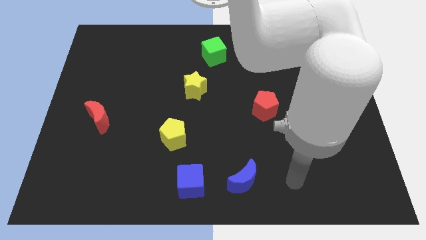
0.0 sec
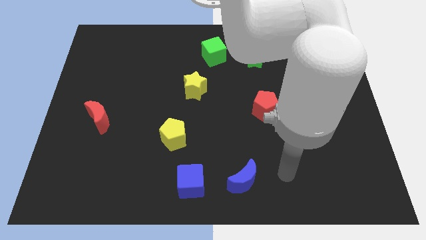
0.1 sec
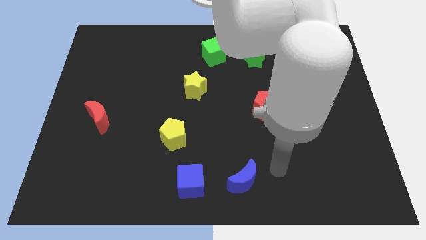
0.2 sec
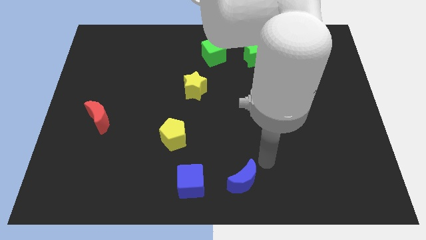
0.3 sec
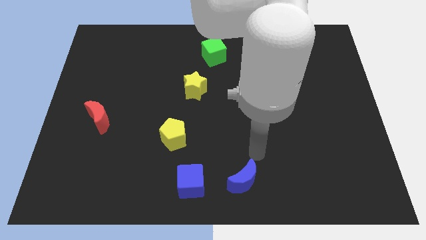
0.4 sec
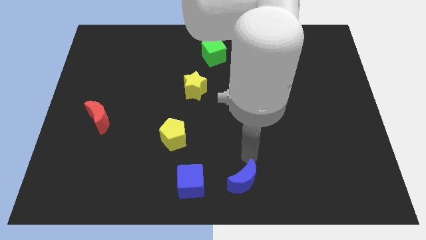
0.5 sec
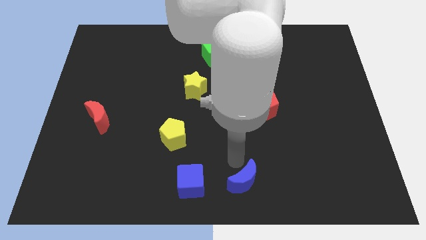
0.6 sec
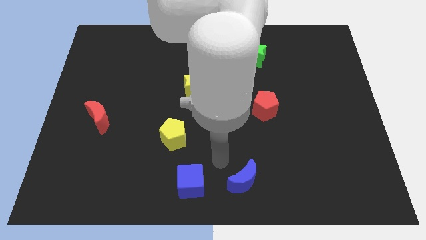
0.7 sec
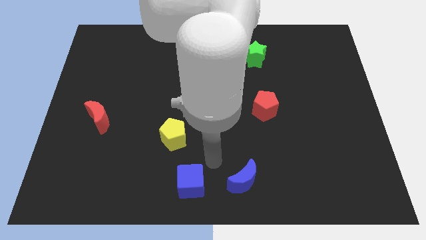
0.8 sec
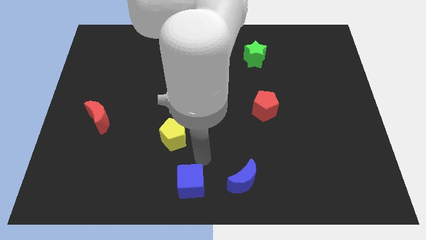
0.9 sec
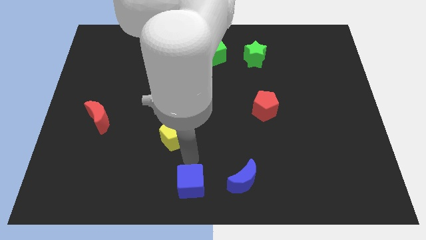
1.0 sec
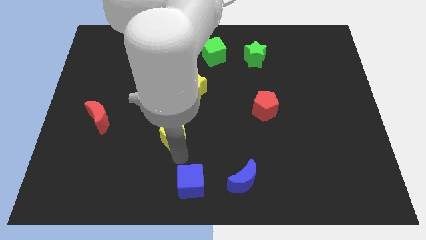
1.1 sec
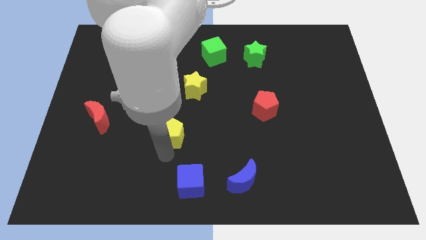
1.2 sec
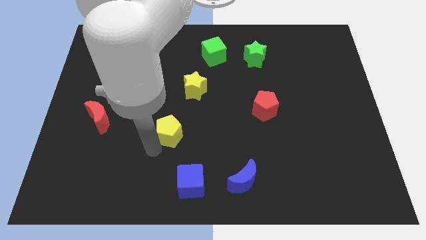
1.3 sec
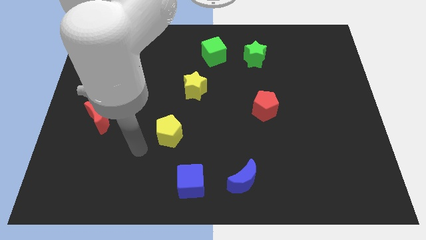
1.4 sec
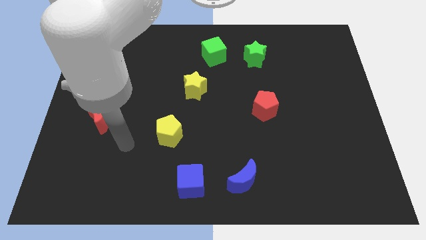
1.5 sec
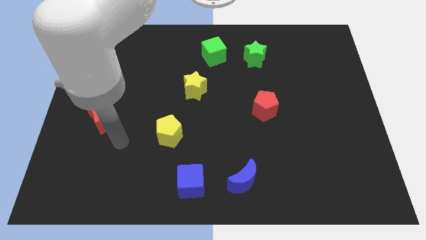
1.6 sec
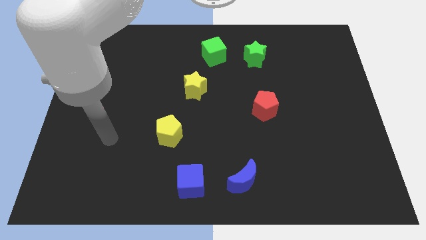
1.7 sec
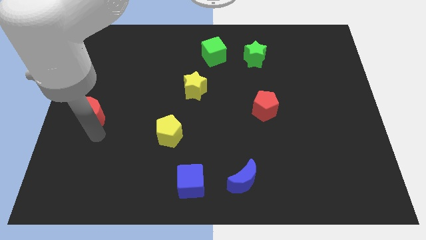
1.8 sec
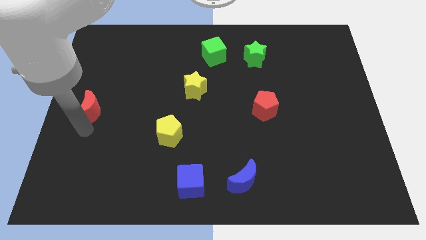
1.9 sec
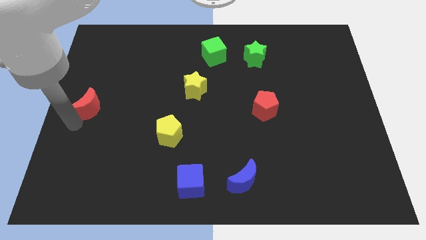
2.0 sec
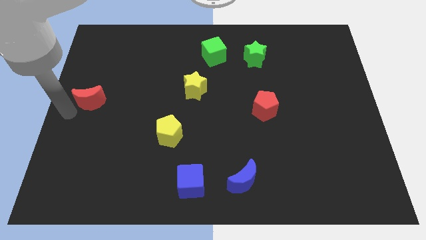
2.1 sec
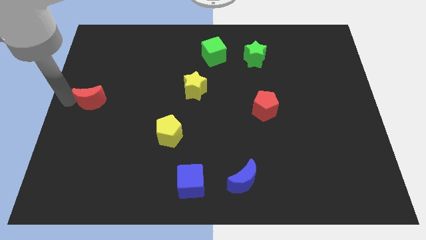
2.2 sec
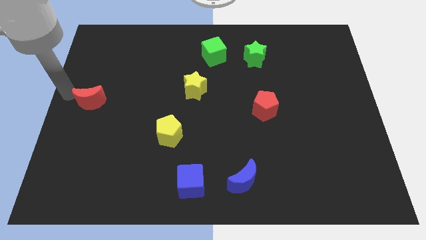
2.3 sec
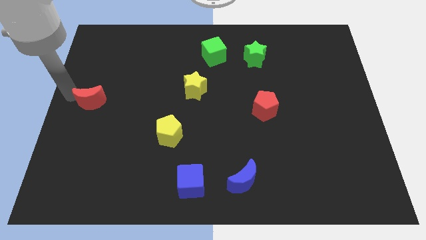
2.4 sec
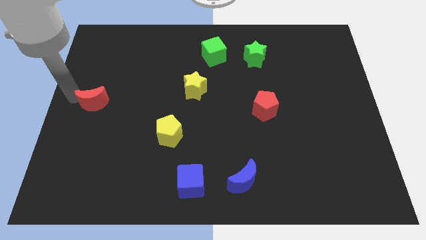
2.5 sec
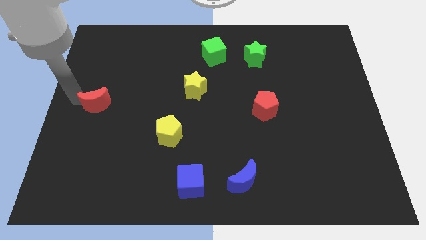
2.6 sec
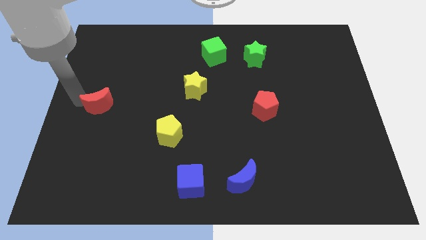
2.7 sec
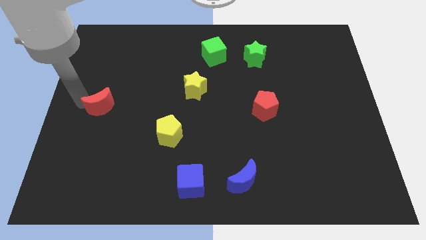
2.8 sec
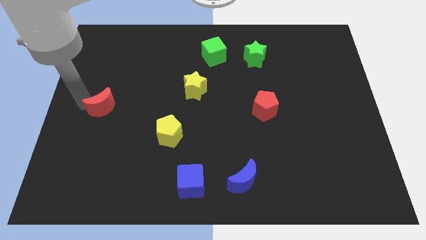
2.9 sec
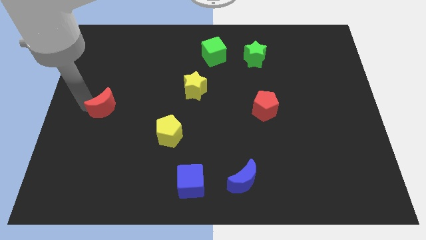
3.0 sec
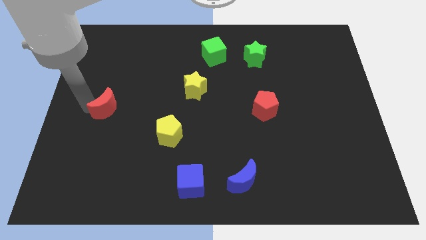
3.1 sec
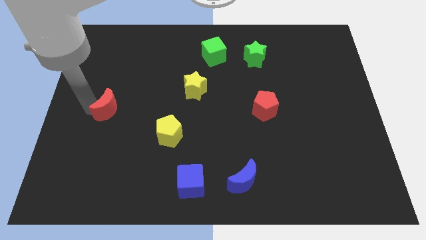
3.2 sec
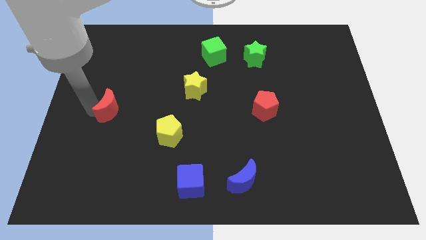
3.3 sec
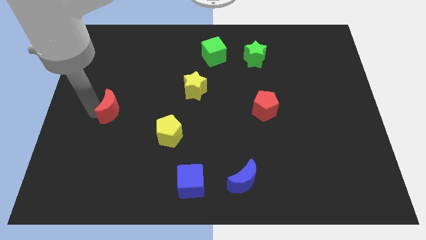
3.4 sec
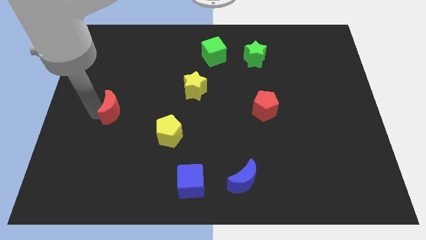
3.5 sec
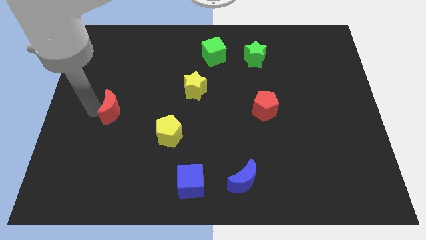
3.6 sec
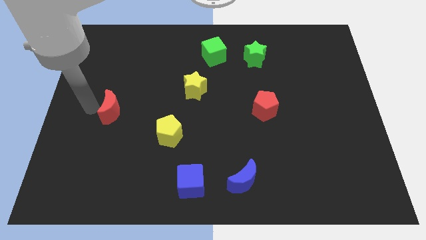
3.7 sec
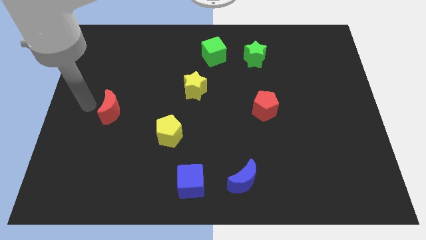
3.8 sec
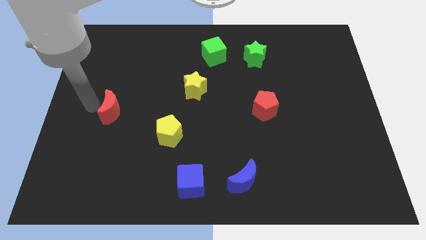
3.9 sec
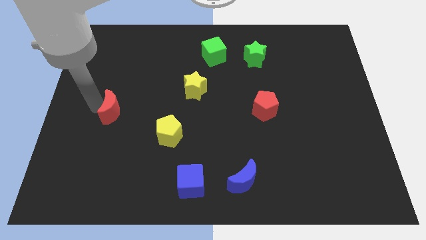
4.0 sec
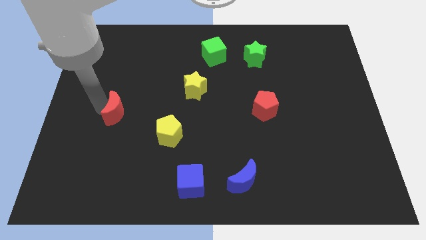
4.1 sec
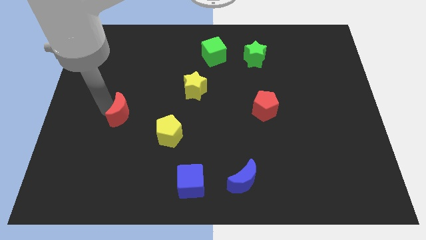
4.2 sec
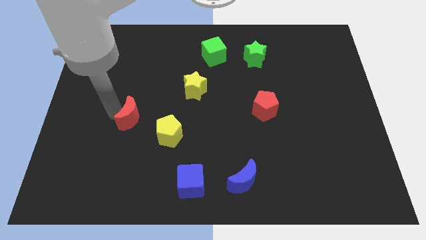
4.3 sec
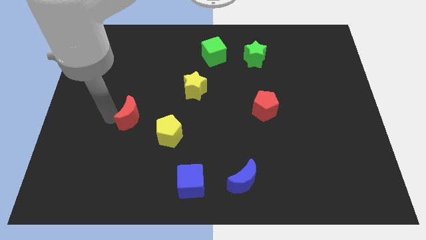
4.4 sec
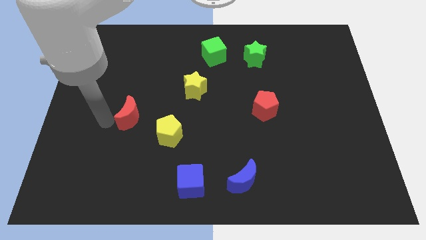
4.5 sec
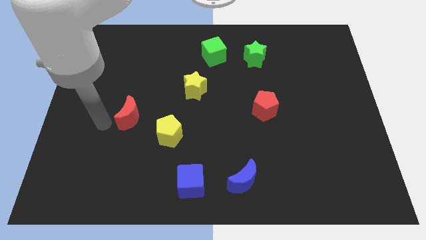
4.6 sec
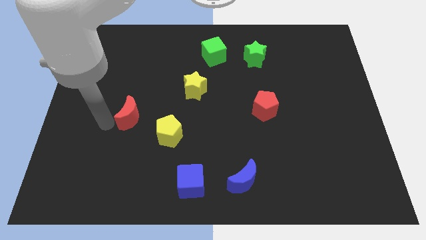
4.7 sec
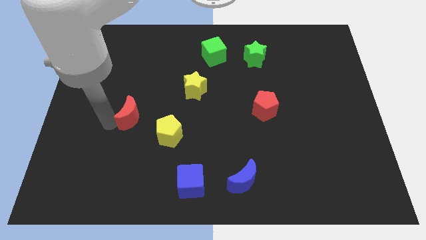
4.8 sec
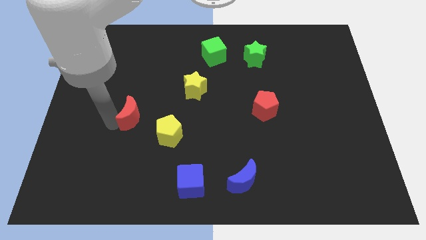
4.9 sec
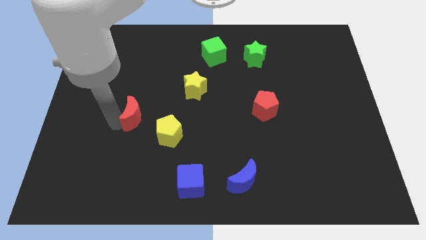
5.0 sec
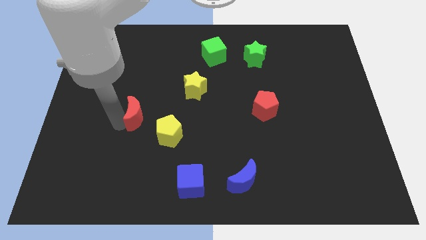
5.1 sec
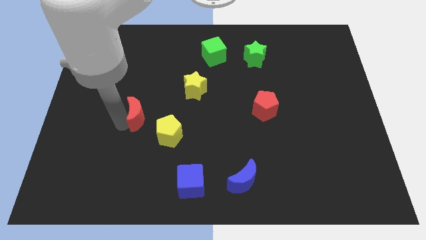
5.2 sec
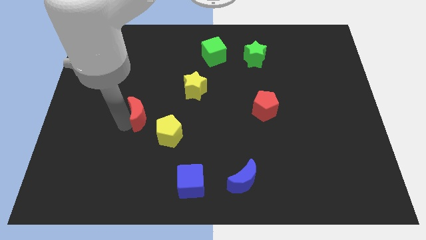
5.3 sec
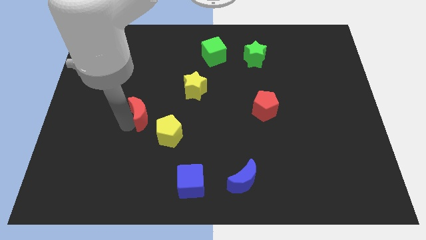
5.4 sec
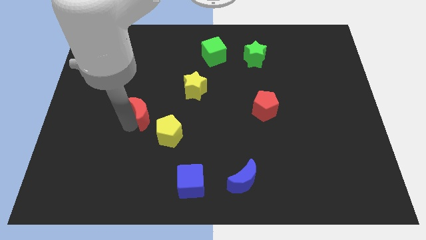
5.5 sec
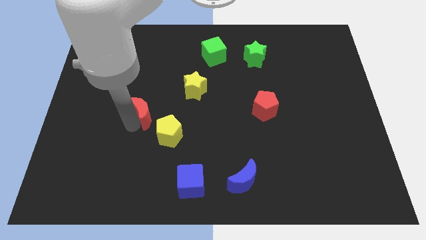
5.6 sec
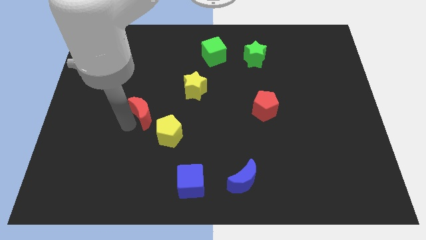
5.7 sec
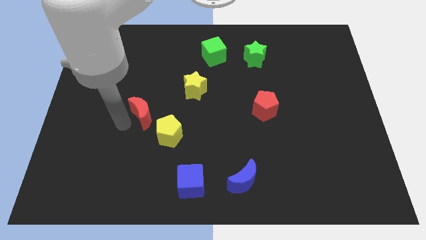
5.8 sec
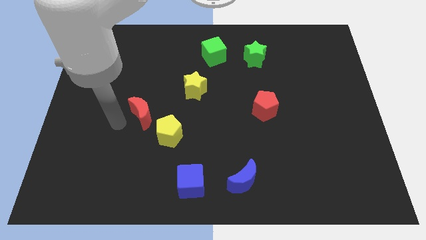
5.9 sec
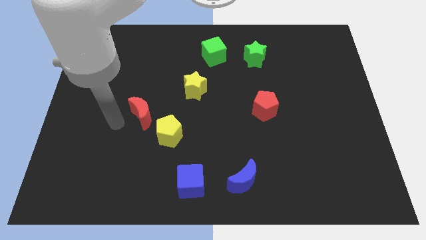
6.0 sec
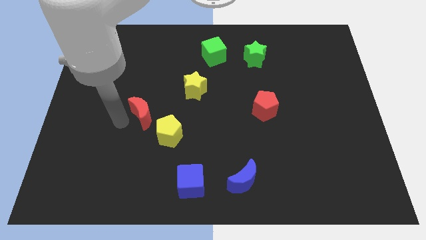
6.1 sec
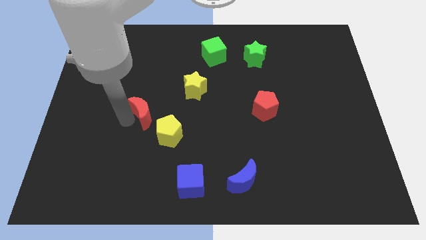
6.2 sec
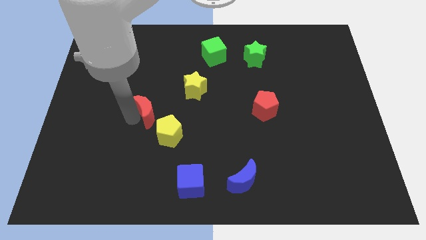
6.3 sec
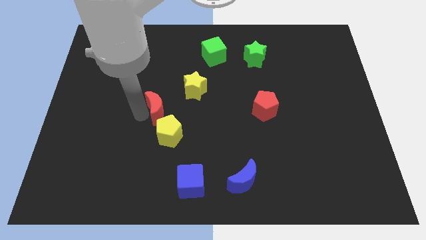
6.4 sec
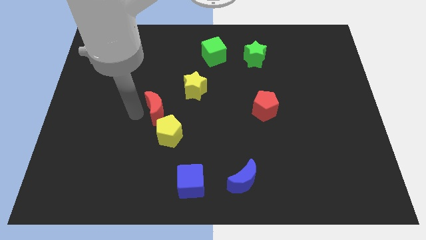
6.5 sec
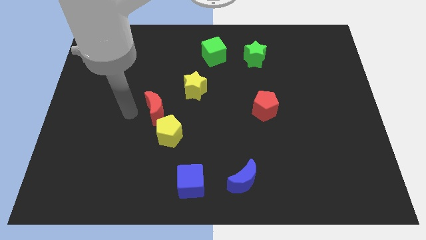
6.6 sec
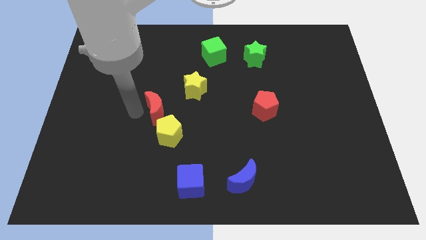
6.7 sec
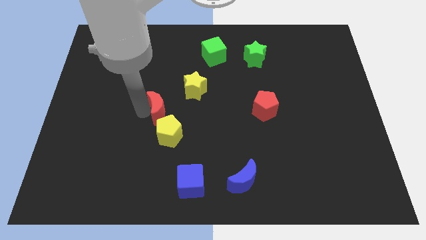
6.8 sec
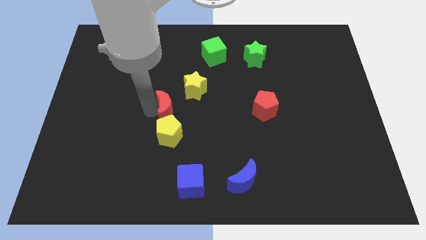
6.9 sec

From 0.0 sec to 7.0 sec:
push the red moon to the middle
